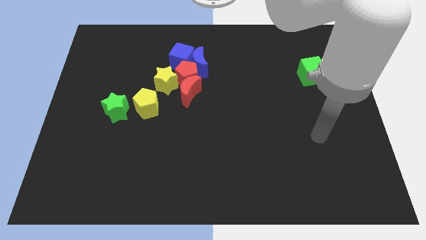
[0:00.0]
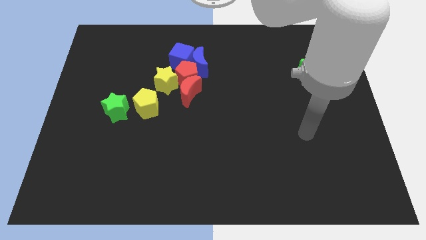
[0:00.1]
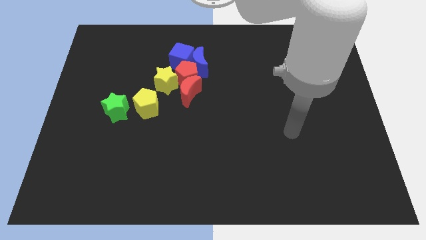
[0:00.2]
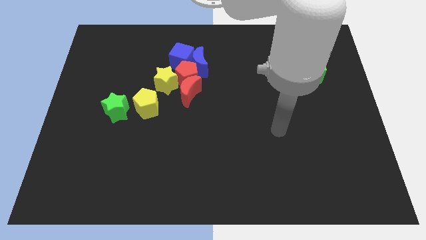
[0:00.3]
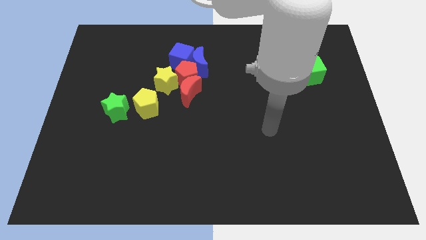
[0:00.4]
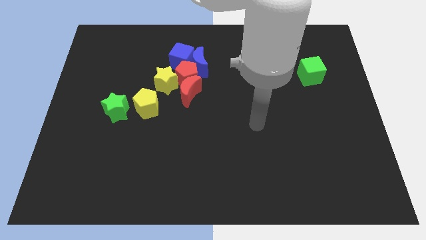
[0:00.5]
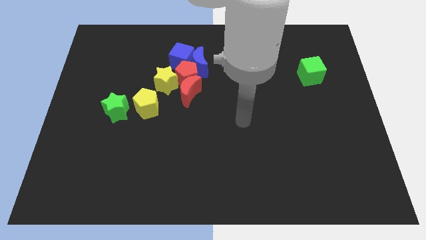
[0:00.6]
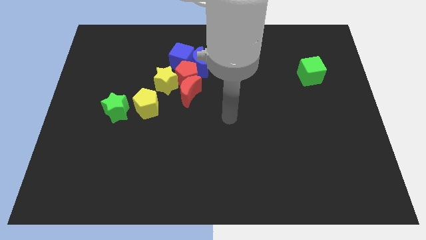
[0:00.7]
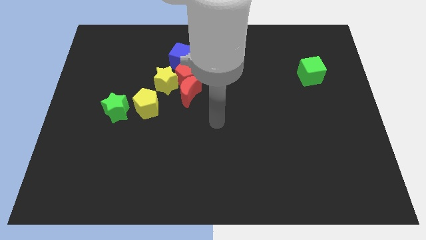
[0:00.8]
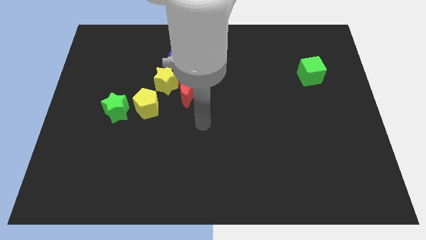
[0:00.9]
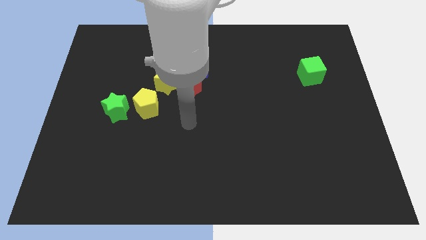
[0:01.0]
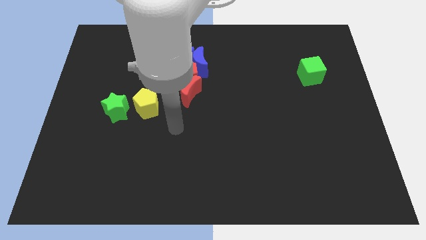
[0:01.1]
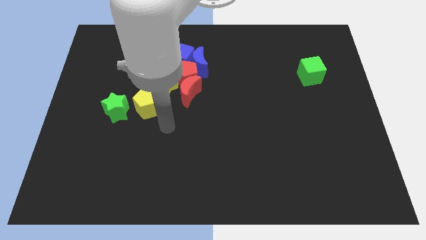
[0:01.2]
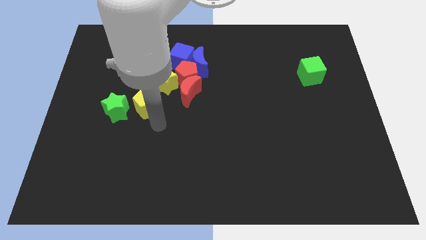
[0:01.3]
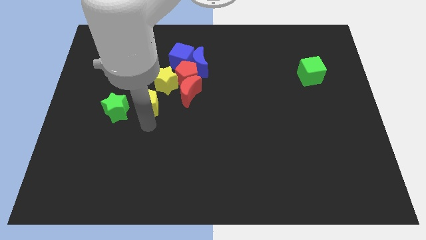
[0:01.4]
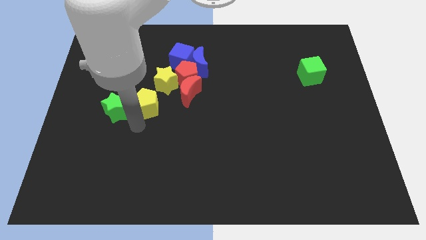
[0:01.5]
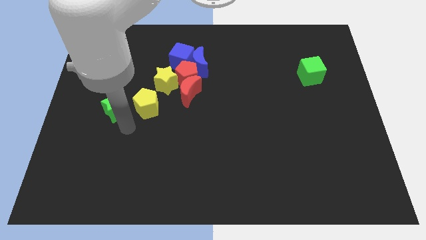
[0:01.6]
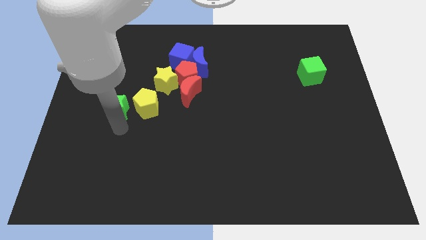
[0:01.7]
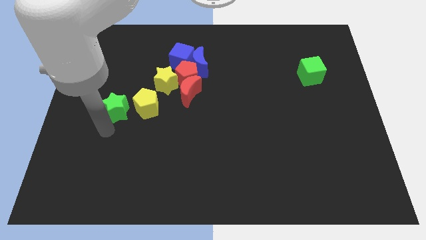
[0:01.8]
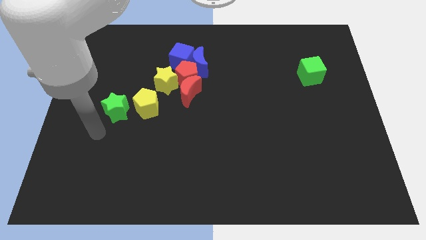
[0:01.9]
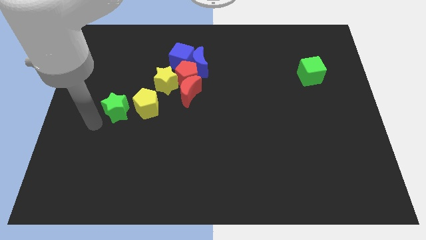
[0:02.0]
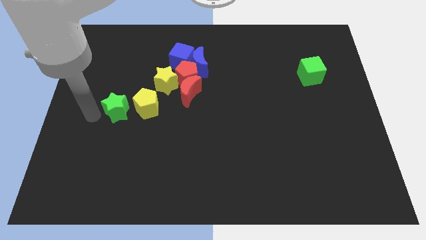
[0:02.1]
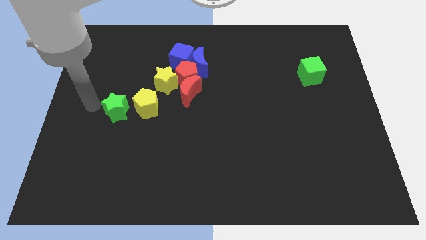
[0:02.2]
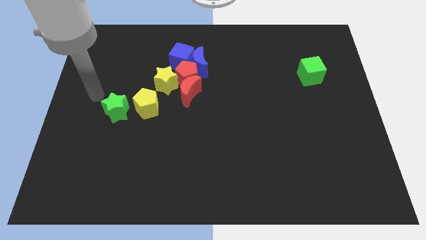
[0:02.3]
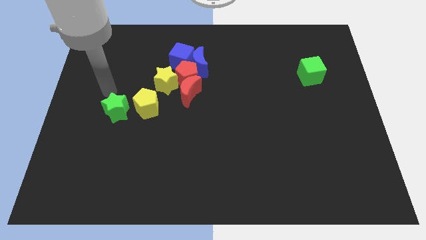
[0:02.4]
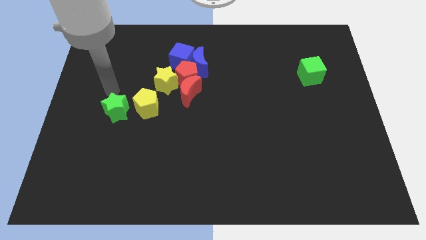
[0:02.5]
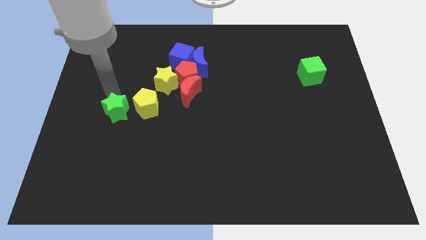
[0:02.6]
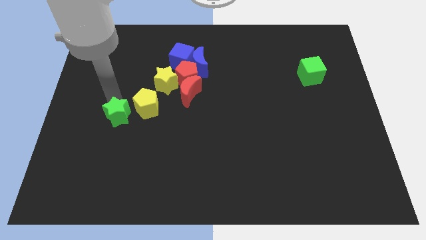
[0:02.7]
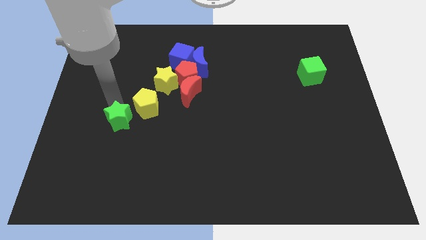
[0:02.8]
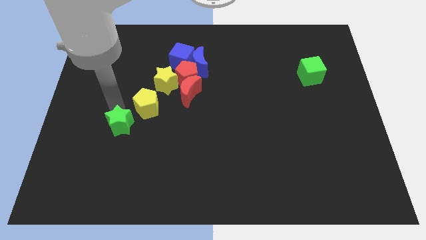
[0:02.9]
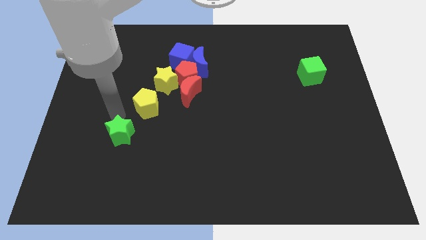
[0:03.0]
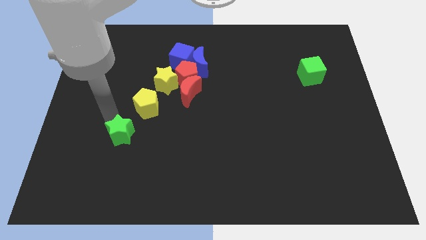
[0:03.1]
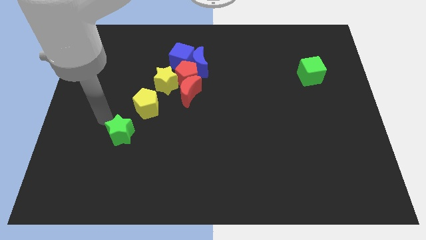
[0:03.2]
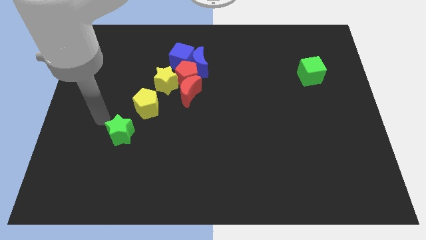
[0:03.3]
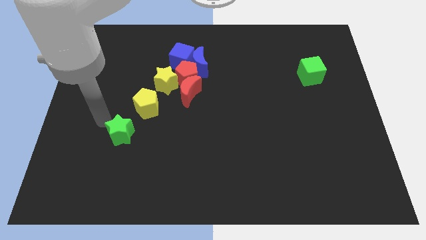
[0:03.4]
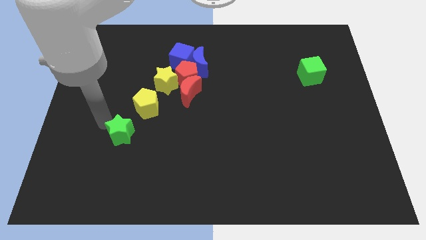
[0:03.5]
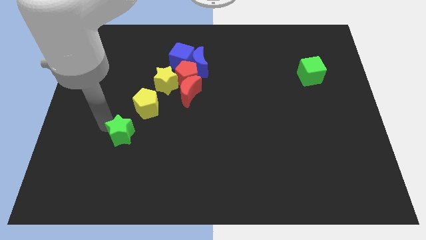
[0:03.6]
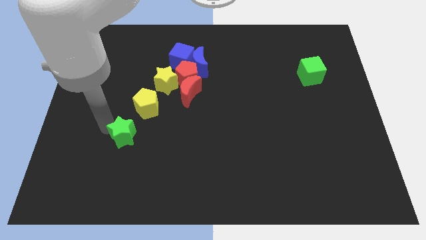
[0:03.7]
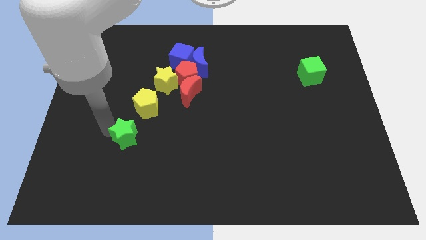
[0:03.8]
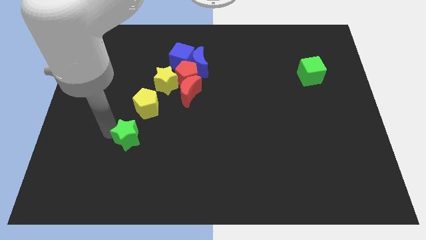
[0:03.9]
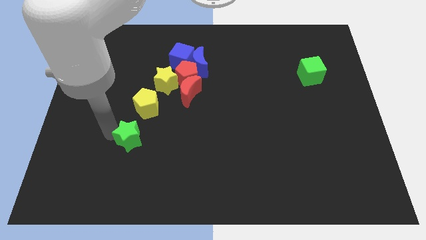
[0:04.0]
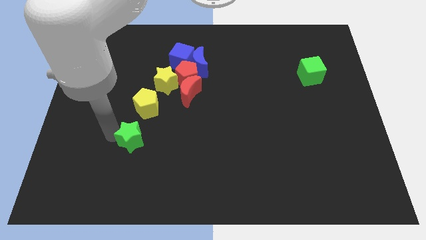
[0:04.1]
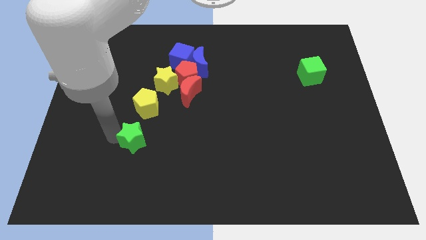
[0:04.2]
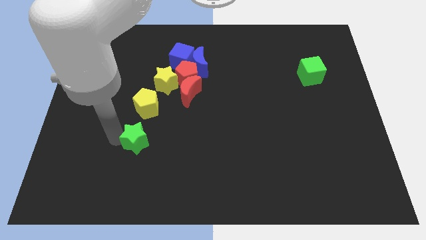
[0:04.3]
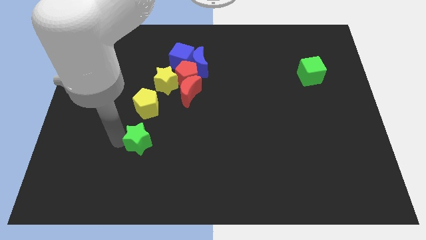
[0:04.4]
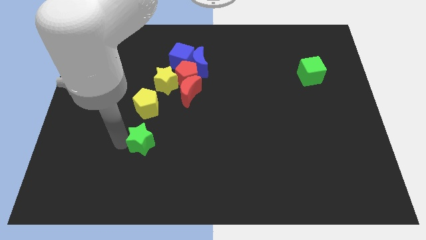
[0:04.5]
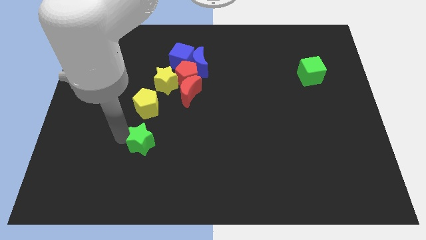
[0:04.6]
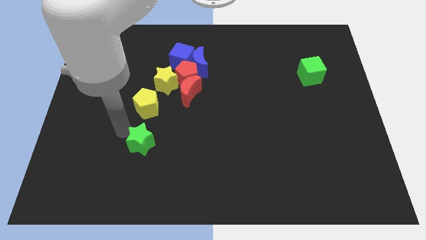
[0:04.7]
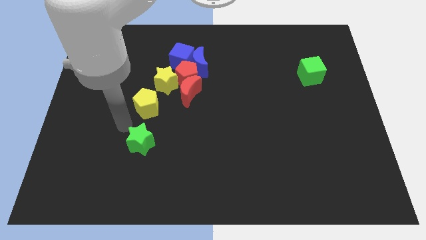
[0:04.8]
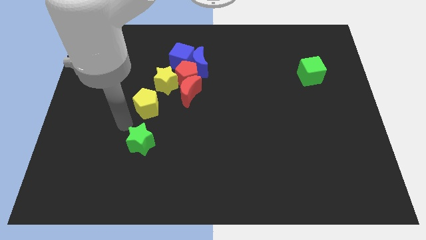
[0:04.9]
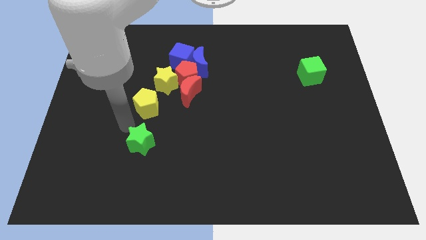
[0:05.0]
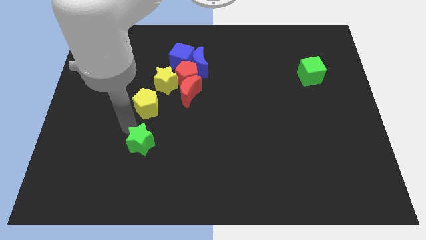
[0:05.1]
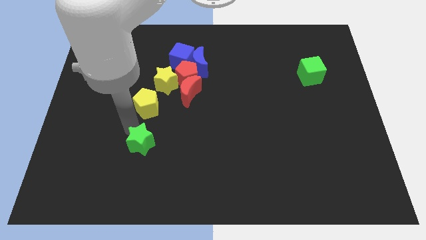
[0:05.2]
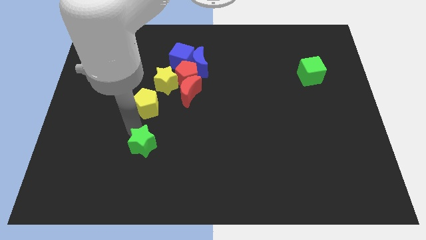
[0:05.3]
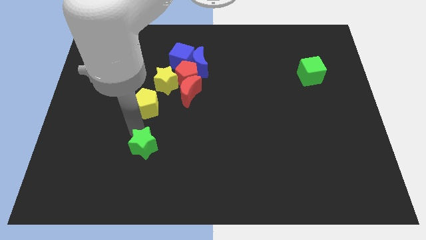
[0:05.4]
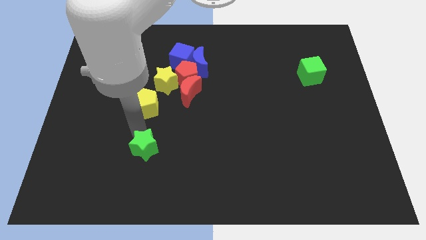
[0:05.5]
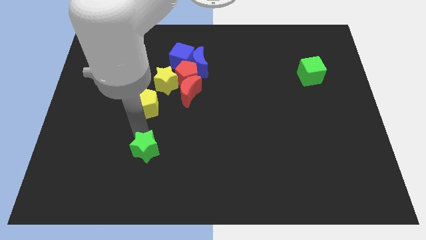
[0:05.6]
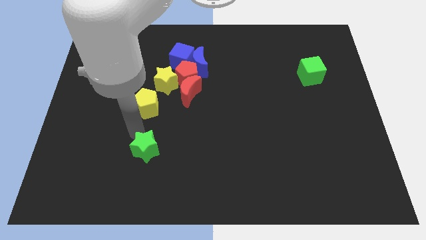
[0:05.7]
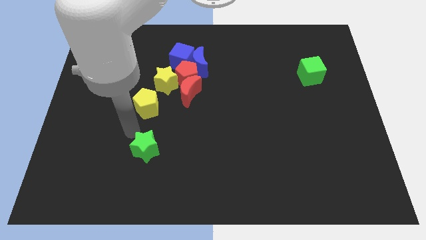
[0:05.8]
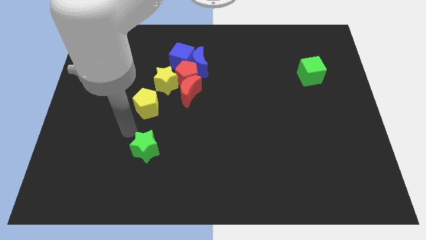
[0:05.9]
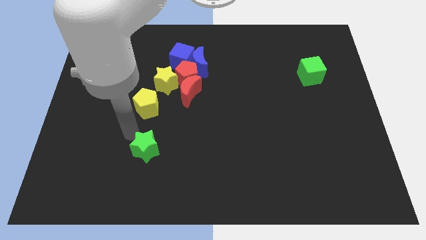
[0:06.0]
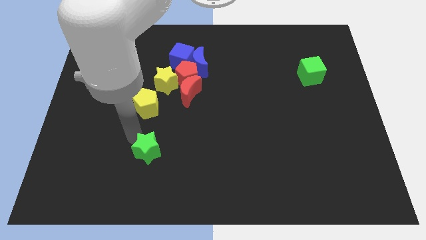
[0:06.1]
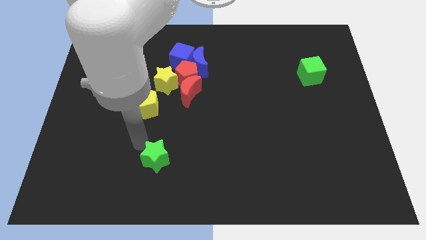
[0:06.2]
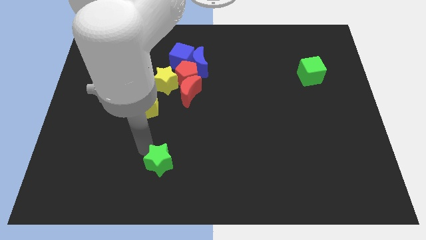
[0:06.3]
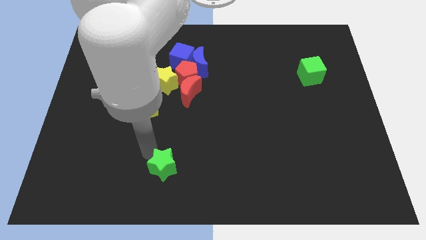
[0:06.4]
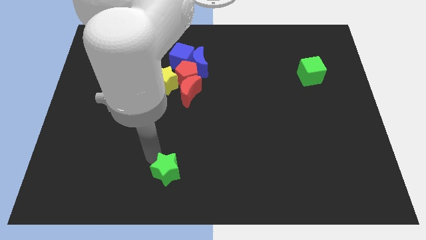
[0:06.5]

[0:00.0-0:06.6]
slide the green star to the bottom

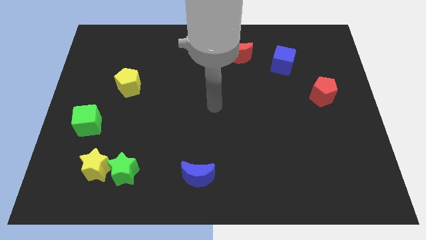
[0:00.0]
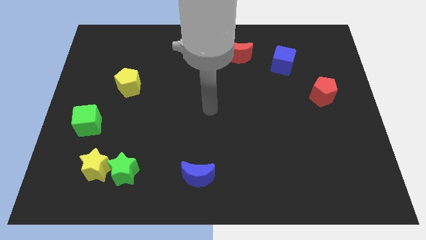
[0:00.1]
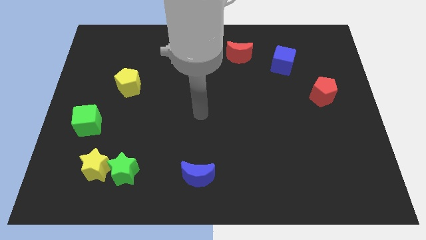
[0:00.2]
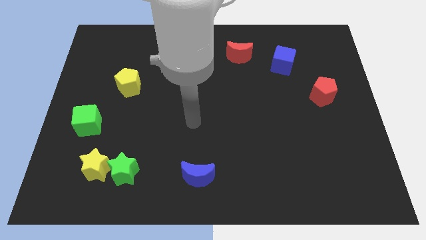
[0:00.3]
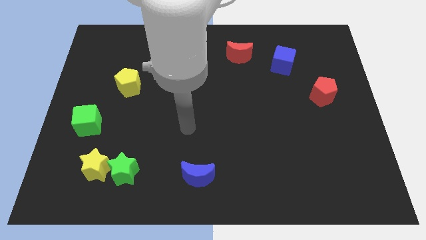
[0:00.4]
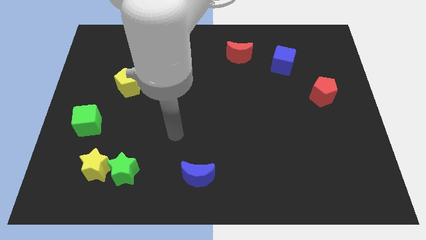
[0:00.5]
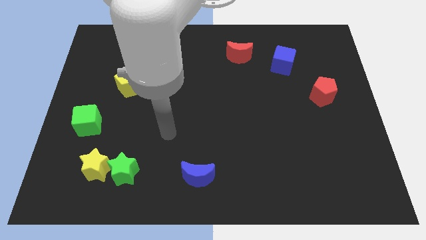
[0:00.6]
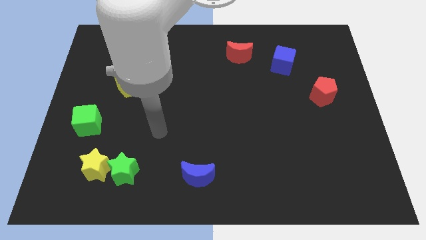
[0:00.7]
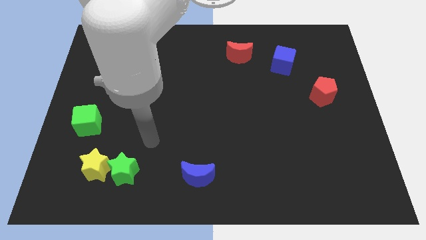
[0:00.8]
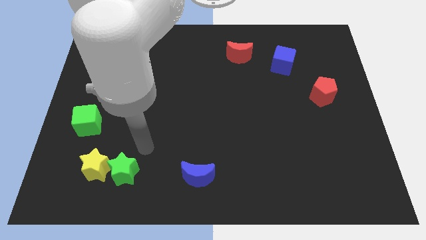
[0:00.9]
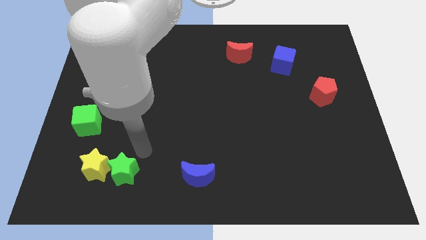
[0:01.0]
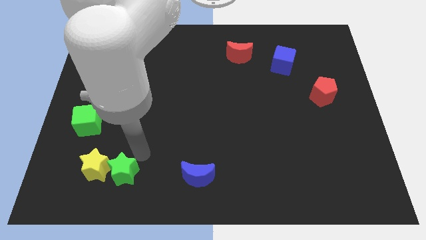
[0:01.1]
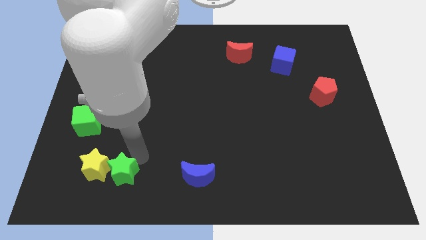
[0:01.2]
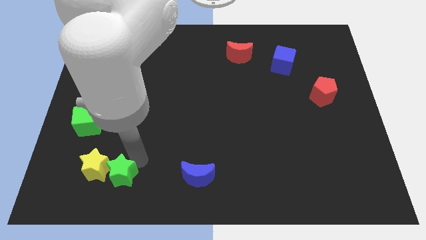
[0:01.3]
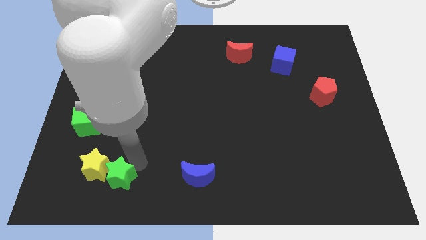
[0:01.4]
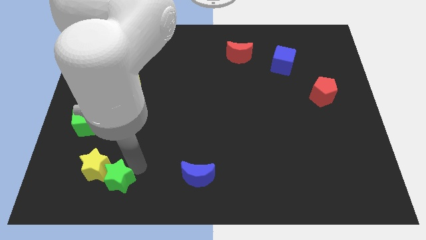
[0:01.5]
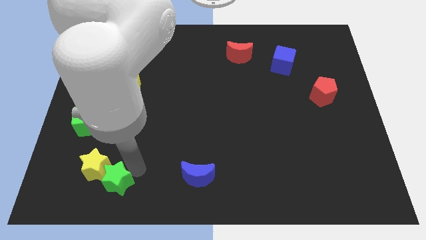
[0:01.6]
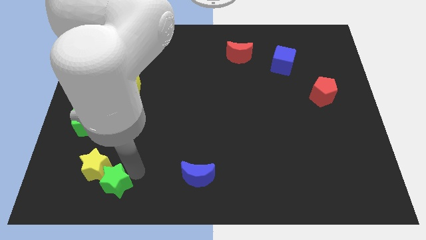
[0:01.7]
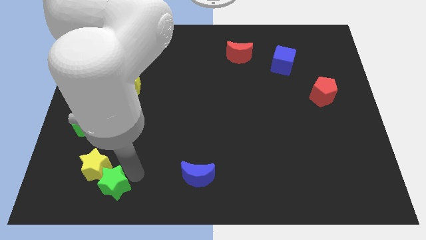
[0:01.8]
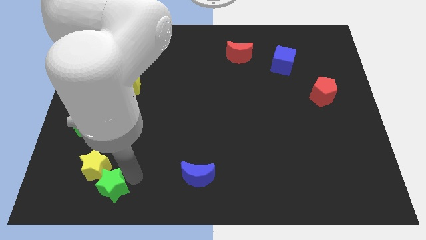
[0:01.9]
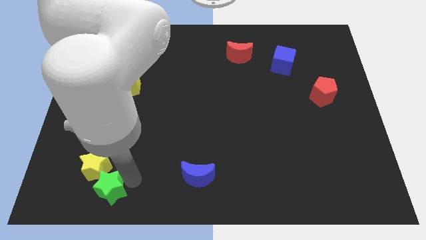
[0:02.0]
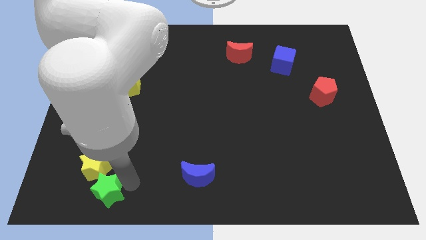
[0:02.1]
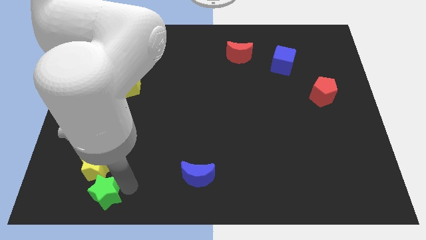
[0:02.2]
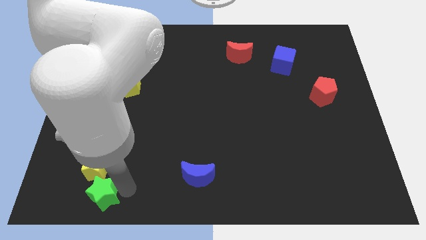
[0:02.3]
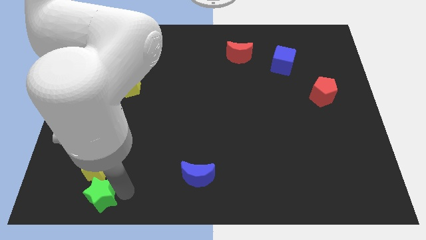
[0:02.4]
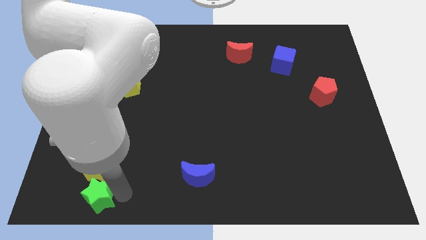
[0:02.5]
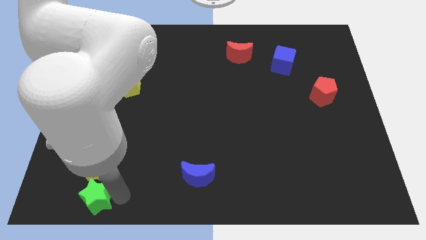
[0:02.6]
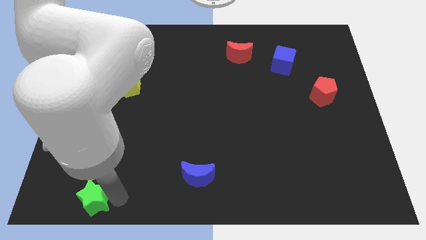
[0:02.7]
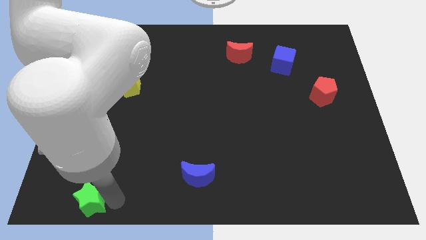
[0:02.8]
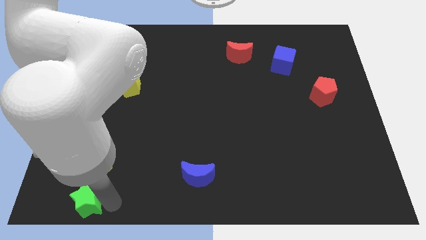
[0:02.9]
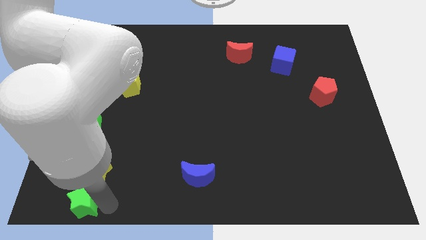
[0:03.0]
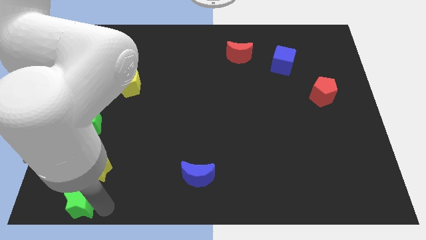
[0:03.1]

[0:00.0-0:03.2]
slide the green star to the bottom left corner
